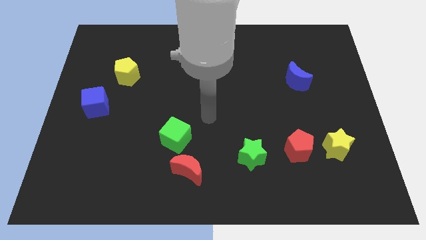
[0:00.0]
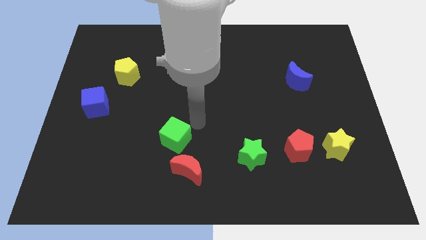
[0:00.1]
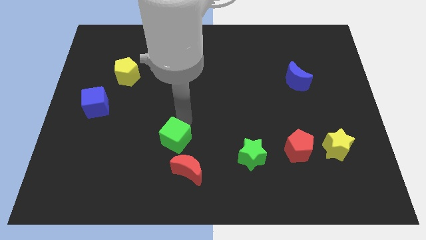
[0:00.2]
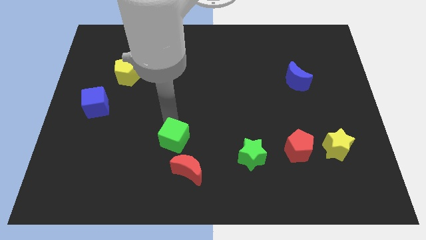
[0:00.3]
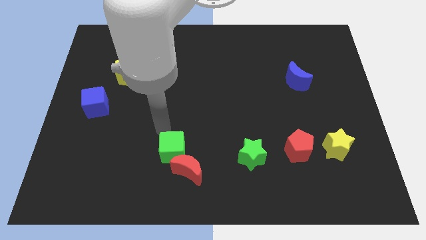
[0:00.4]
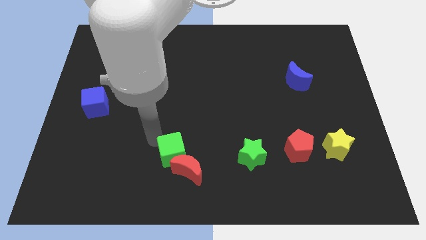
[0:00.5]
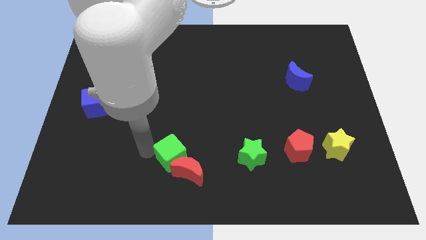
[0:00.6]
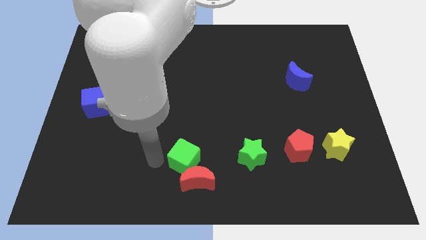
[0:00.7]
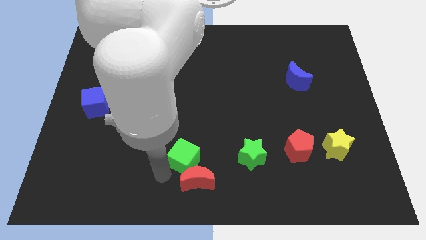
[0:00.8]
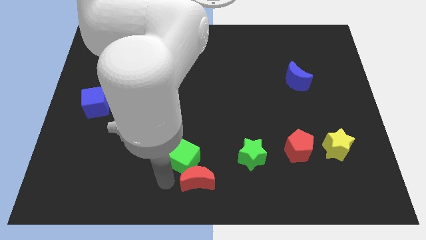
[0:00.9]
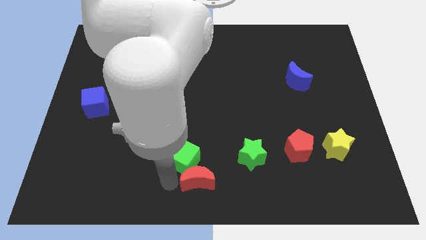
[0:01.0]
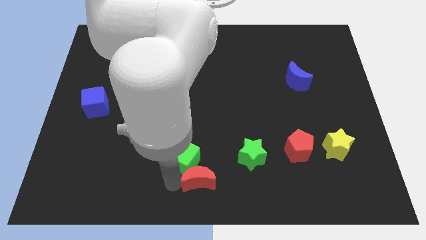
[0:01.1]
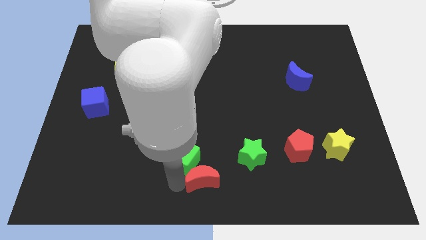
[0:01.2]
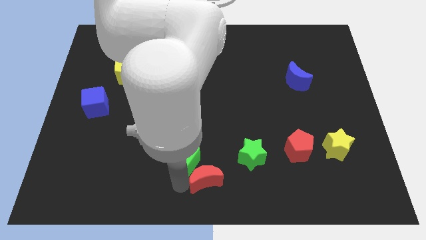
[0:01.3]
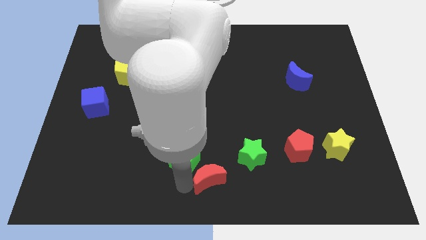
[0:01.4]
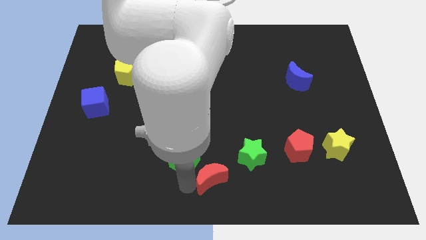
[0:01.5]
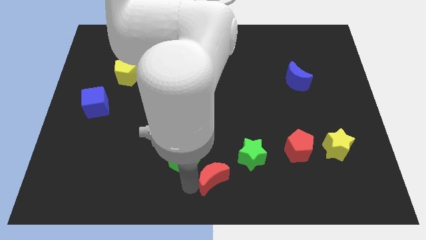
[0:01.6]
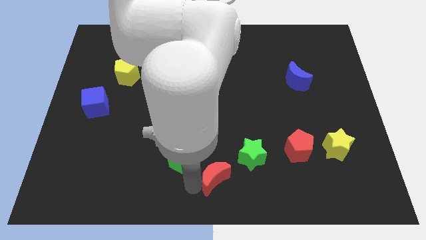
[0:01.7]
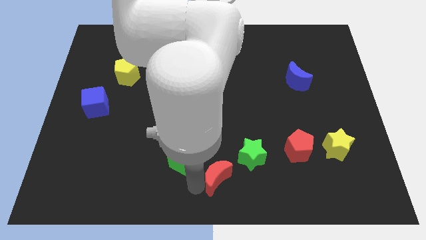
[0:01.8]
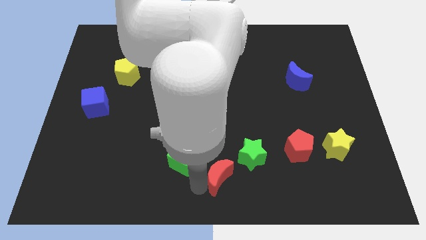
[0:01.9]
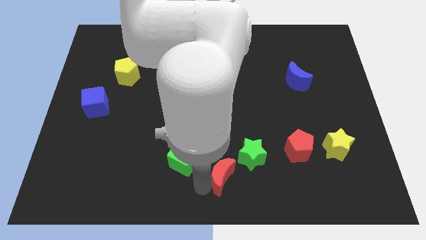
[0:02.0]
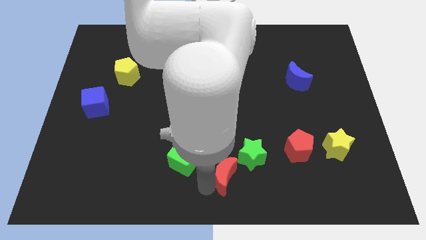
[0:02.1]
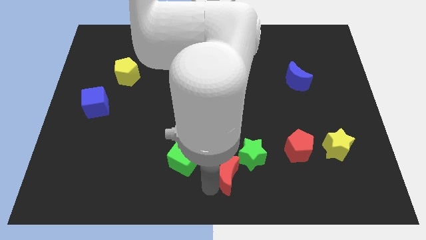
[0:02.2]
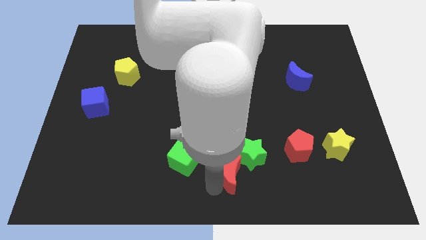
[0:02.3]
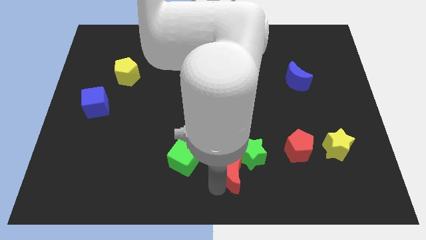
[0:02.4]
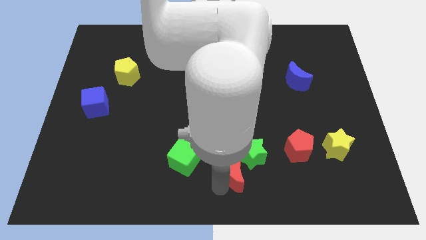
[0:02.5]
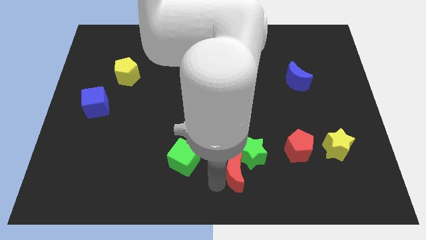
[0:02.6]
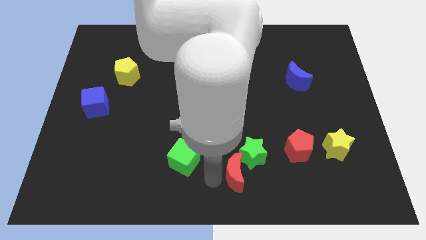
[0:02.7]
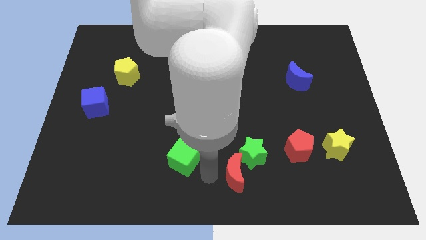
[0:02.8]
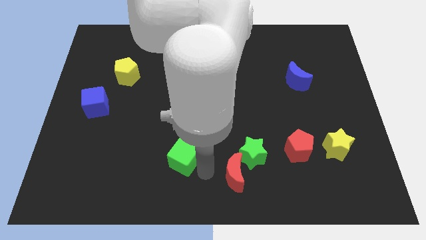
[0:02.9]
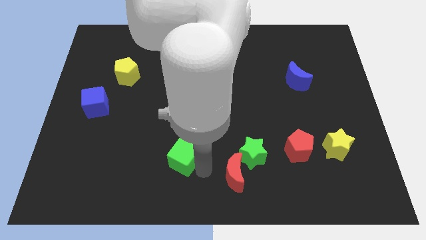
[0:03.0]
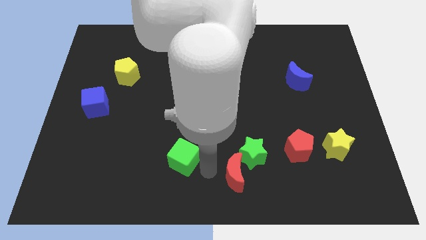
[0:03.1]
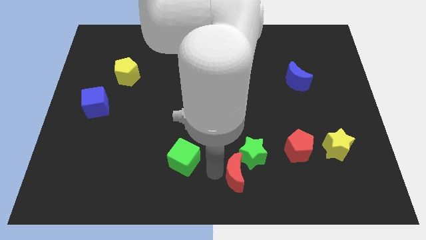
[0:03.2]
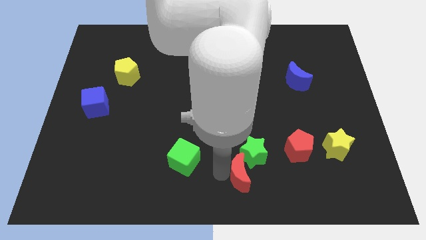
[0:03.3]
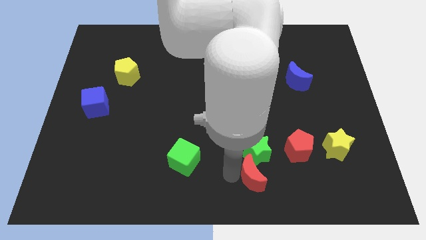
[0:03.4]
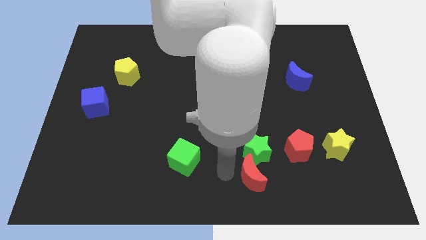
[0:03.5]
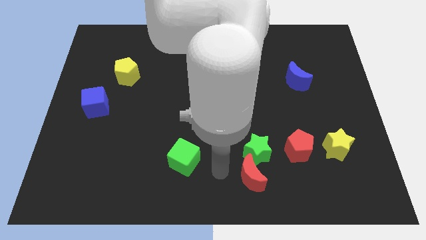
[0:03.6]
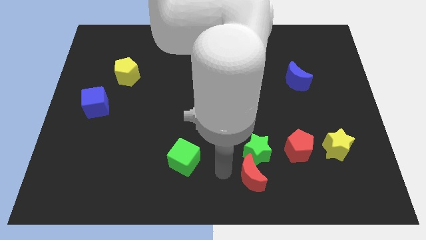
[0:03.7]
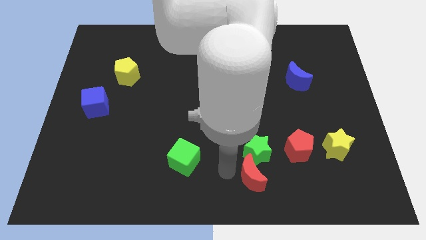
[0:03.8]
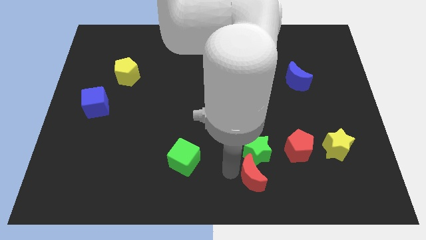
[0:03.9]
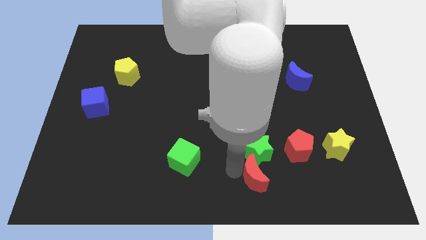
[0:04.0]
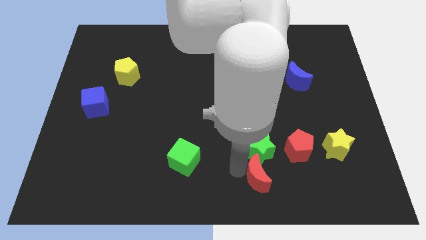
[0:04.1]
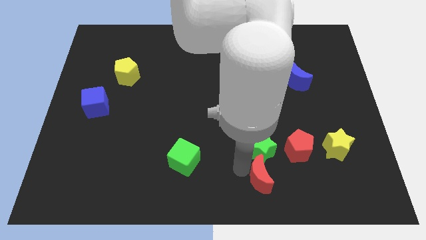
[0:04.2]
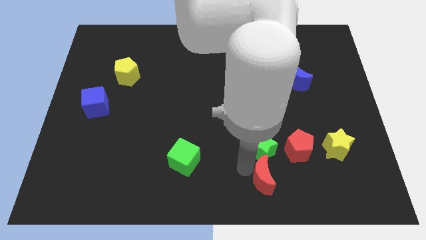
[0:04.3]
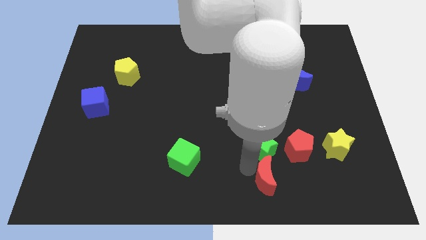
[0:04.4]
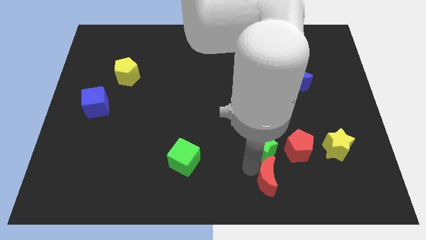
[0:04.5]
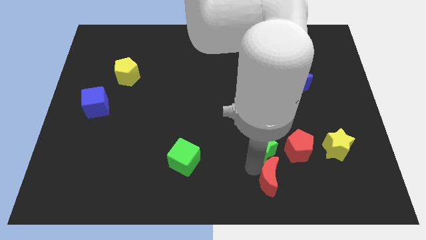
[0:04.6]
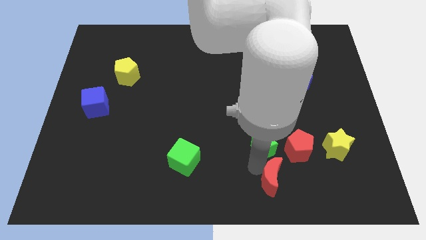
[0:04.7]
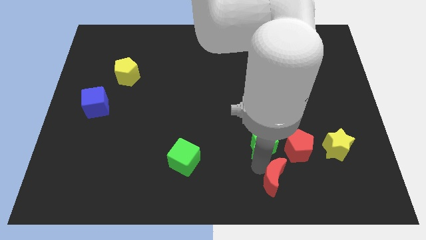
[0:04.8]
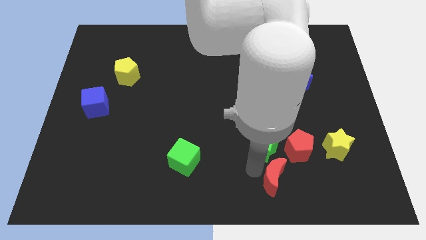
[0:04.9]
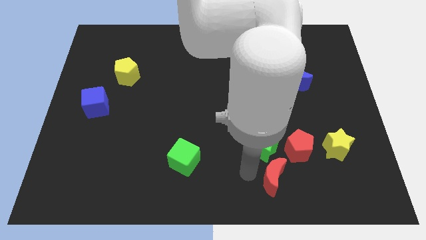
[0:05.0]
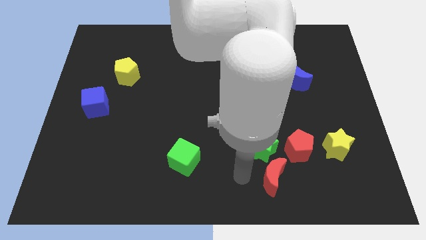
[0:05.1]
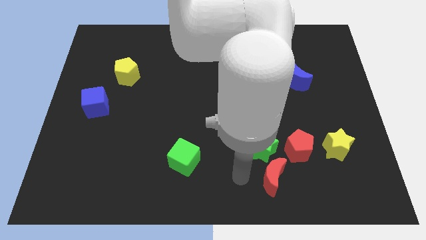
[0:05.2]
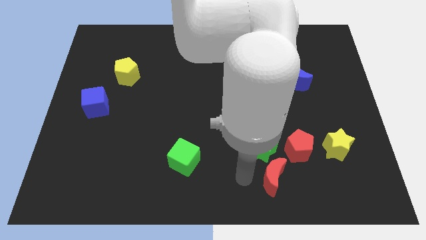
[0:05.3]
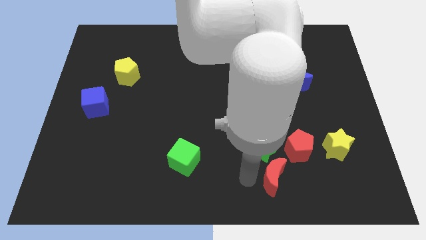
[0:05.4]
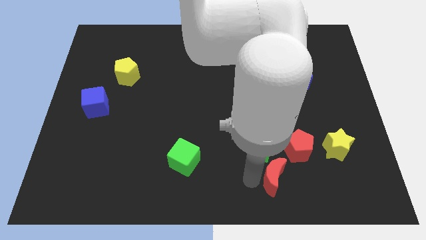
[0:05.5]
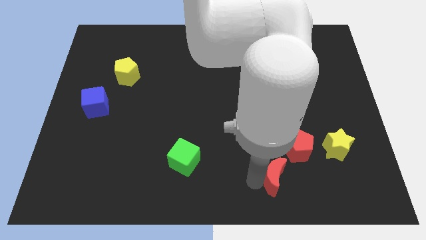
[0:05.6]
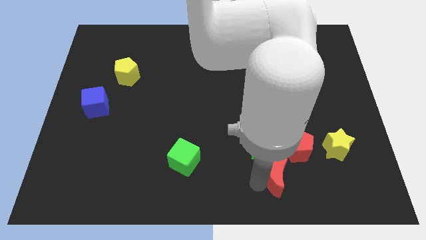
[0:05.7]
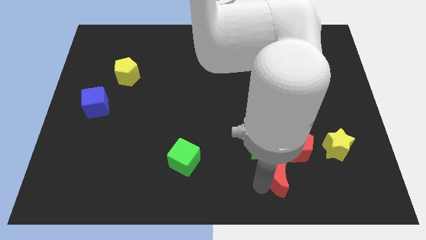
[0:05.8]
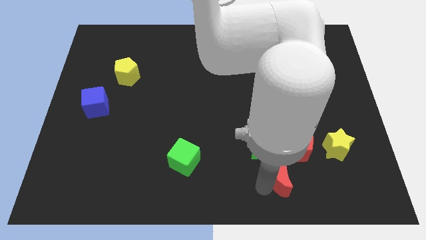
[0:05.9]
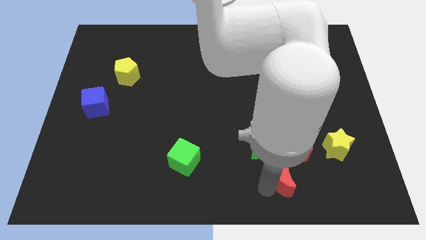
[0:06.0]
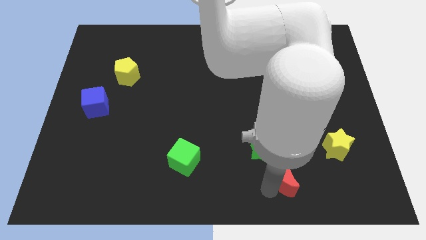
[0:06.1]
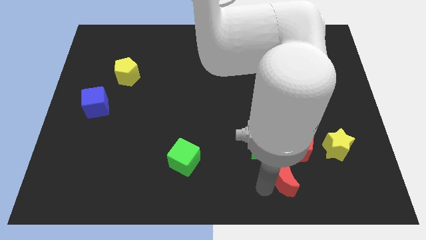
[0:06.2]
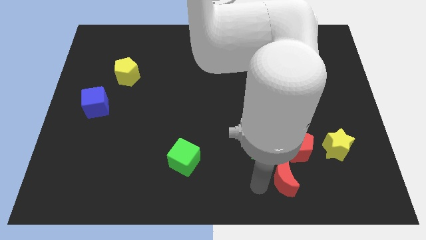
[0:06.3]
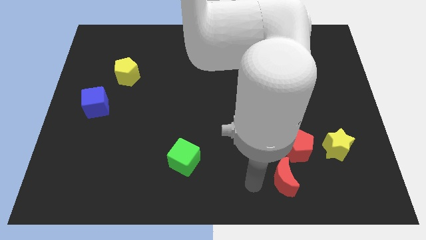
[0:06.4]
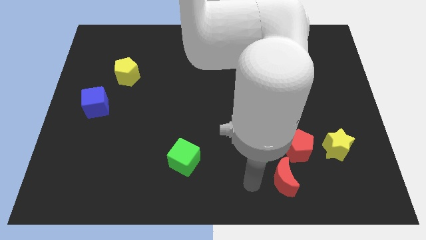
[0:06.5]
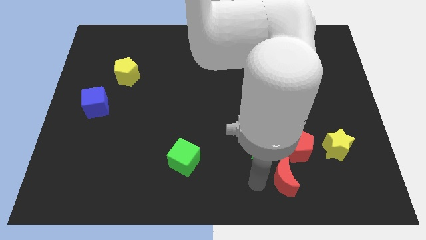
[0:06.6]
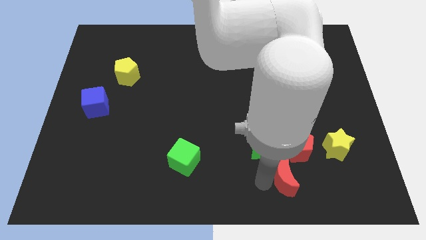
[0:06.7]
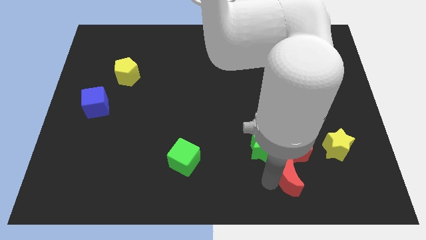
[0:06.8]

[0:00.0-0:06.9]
slide the red moon to the right

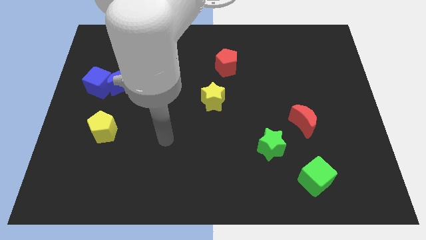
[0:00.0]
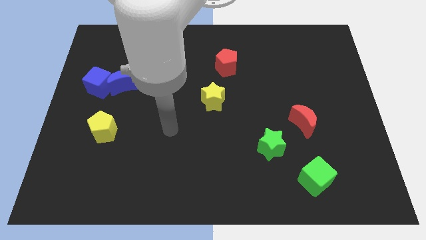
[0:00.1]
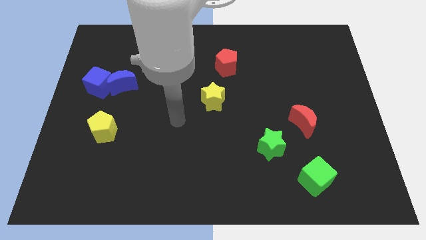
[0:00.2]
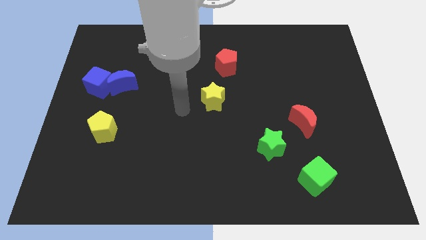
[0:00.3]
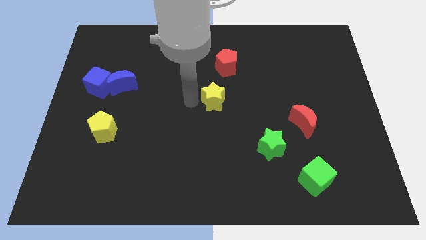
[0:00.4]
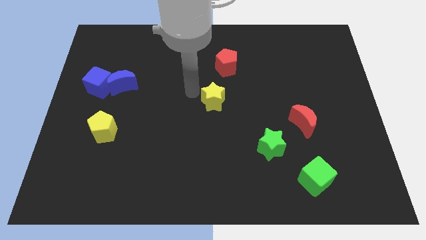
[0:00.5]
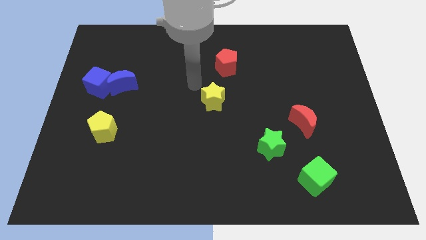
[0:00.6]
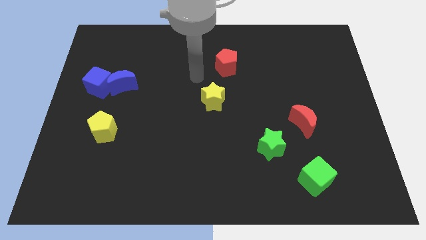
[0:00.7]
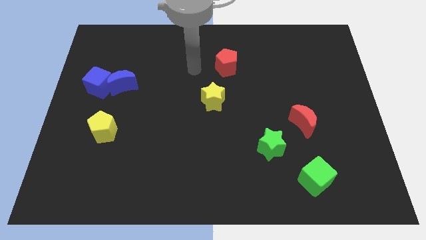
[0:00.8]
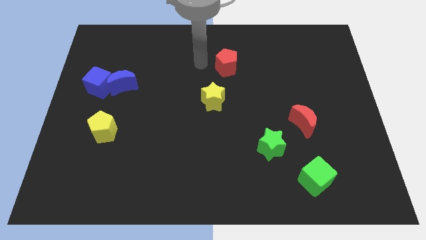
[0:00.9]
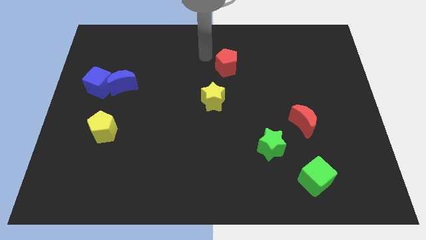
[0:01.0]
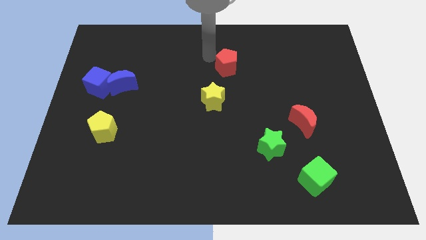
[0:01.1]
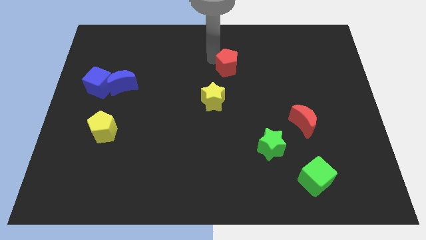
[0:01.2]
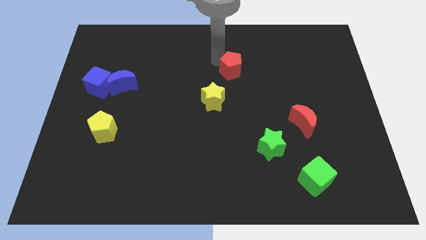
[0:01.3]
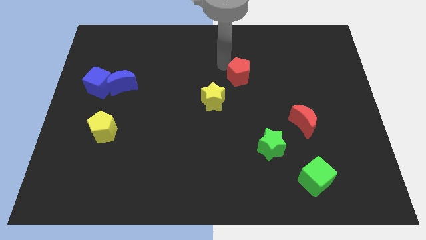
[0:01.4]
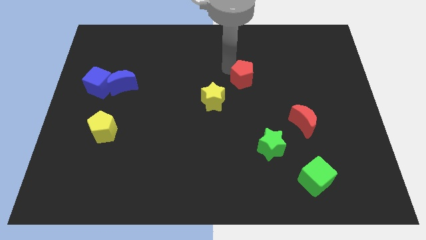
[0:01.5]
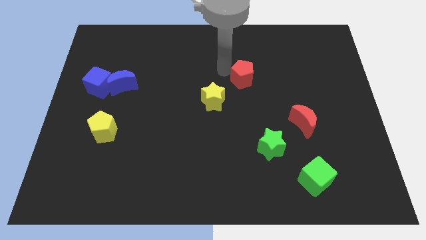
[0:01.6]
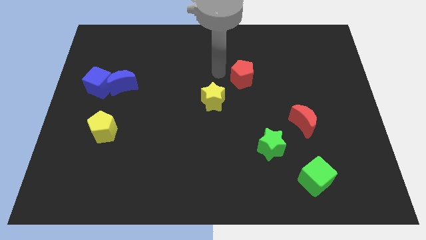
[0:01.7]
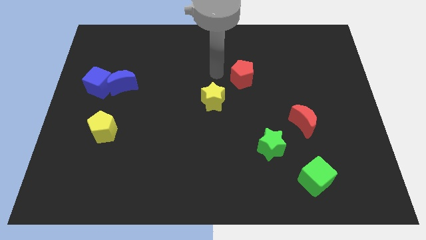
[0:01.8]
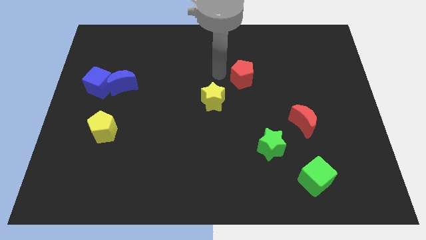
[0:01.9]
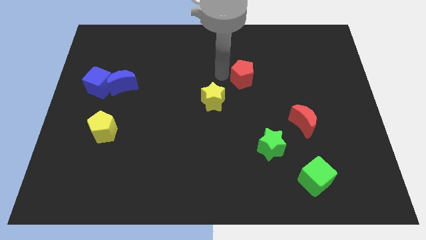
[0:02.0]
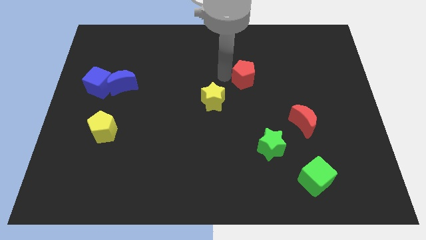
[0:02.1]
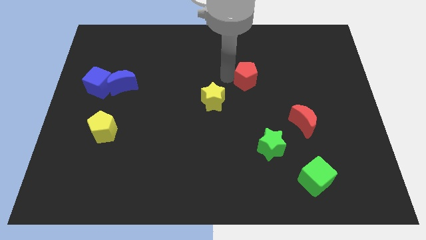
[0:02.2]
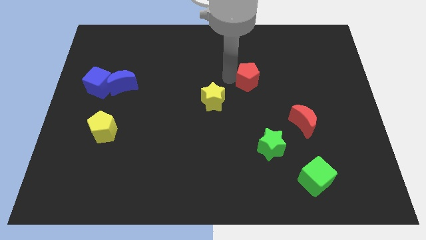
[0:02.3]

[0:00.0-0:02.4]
move the red pentagon down and right diagonally somewhat
